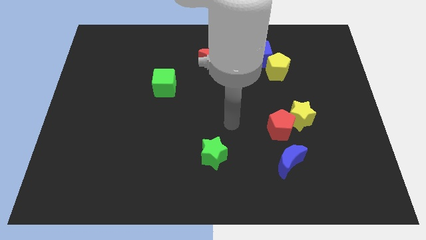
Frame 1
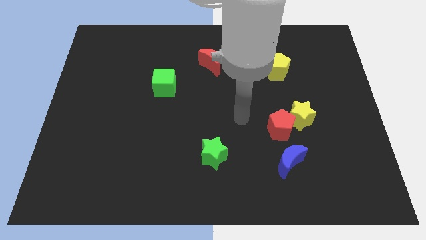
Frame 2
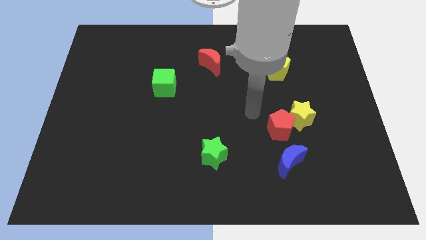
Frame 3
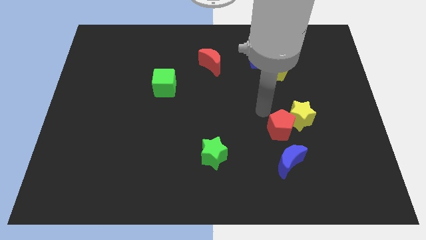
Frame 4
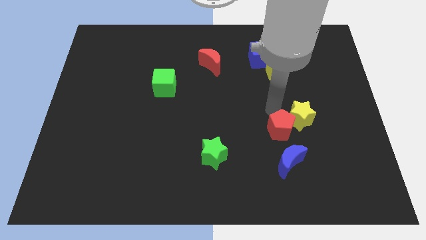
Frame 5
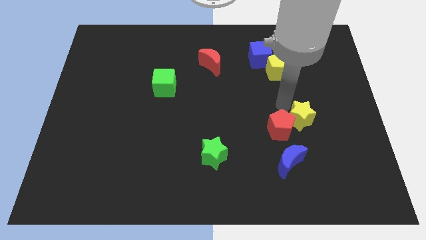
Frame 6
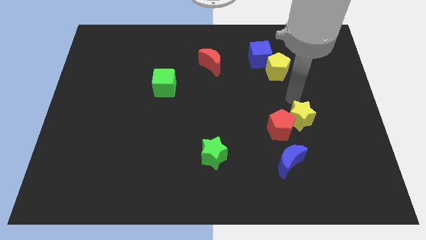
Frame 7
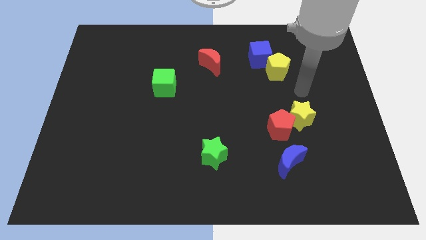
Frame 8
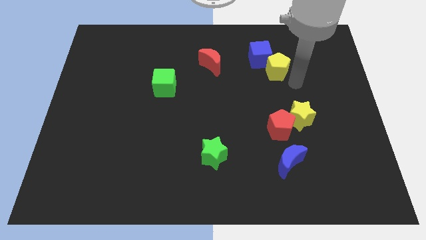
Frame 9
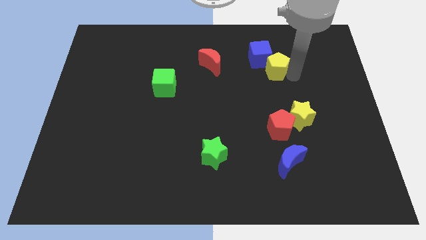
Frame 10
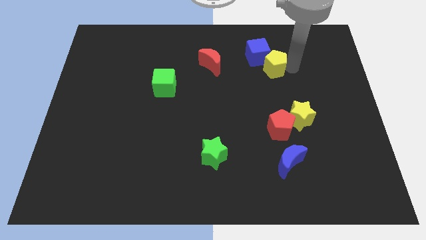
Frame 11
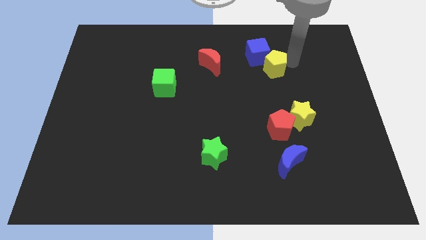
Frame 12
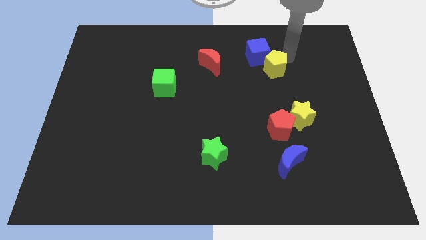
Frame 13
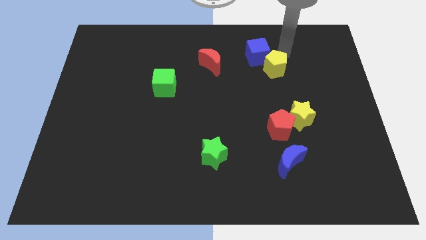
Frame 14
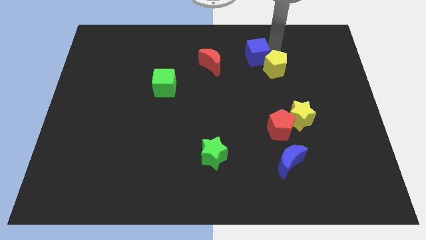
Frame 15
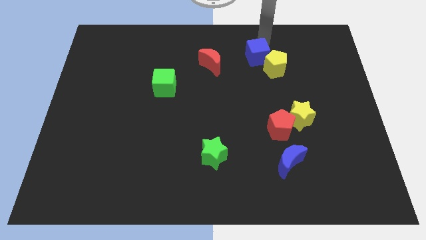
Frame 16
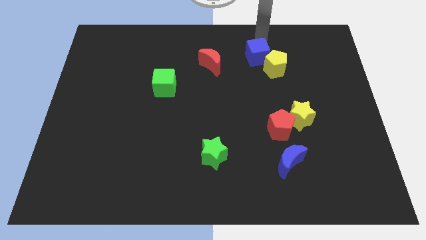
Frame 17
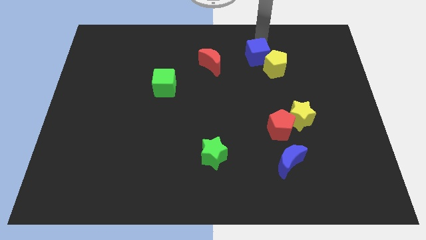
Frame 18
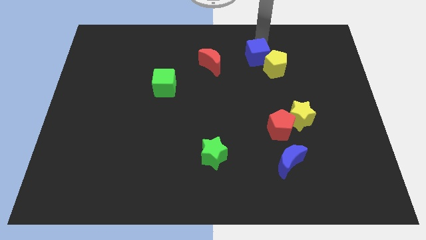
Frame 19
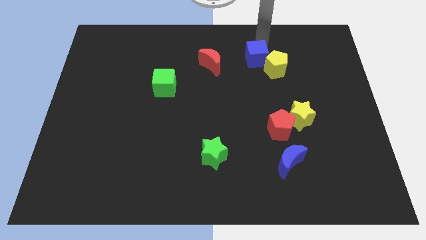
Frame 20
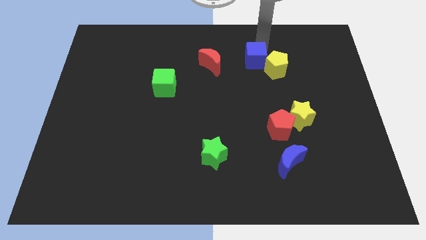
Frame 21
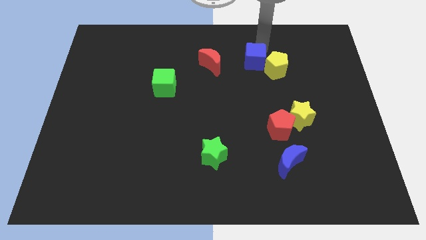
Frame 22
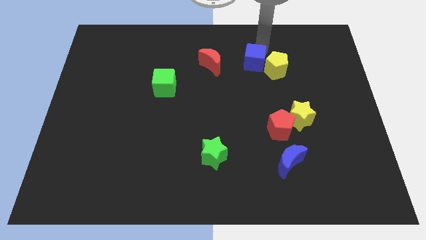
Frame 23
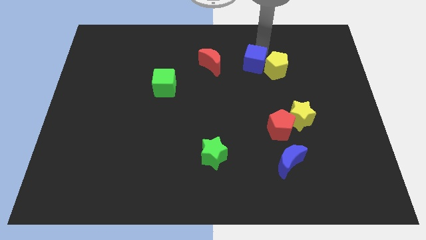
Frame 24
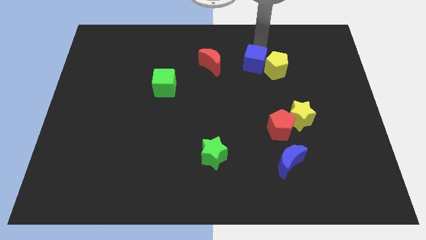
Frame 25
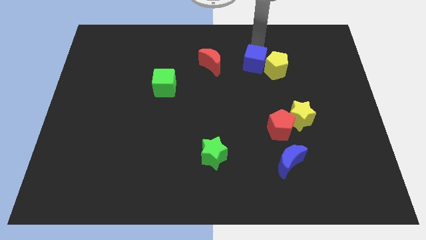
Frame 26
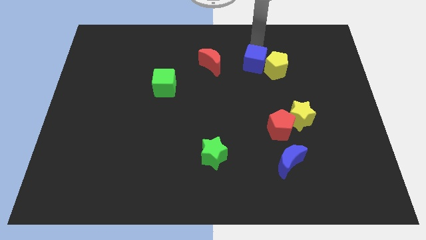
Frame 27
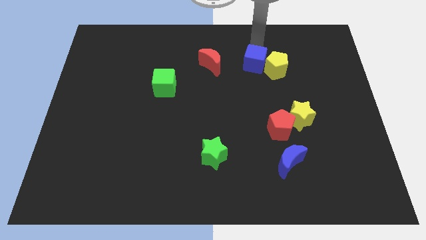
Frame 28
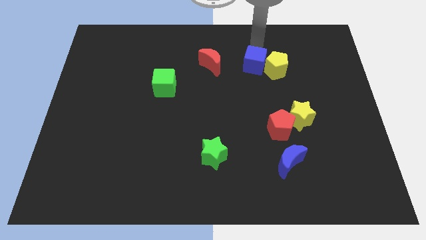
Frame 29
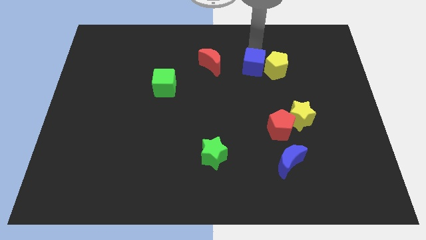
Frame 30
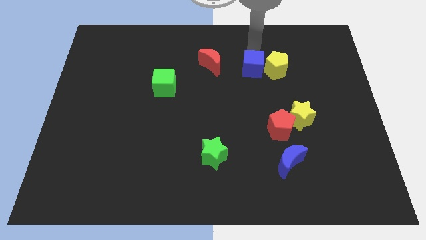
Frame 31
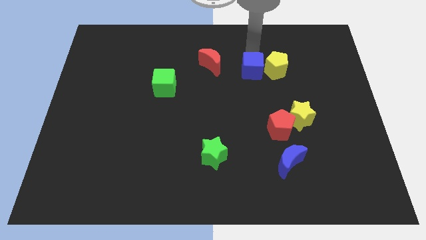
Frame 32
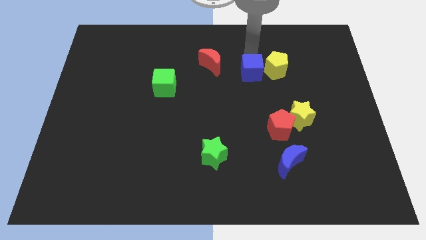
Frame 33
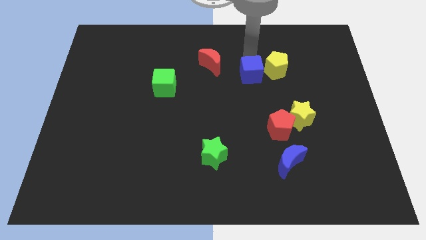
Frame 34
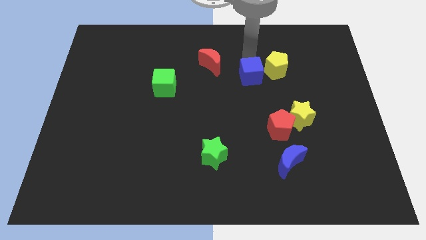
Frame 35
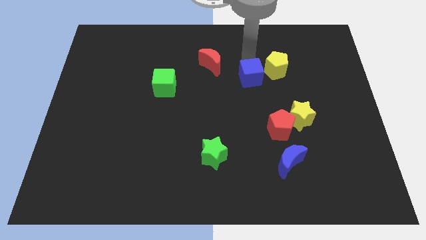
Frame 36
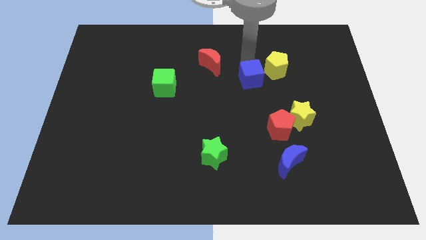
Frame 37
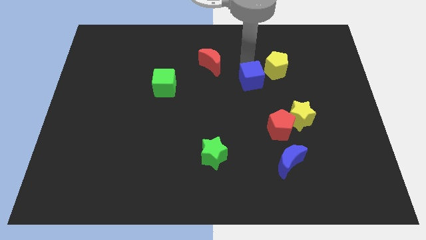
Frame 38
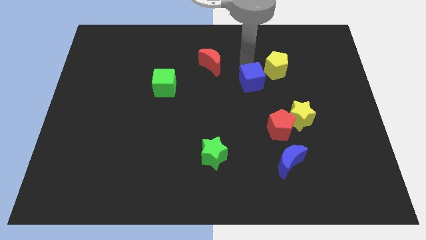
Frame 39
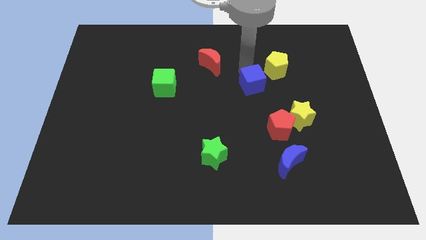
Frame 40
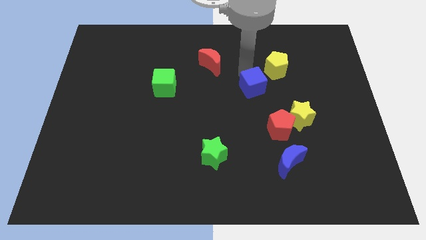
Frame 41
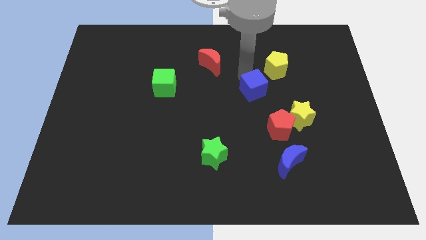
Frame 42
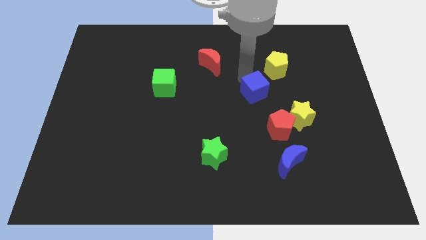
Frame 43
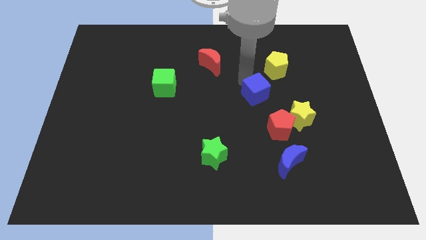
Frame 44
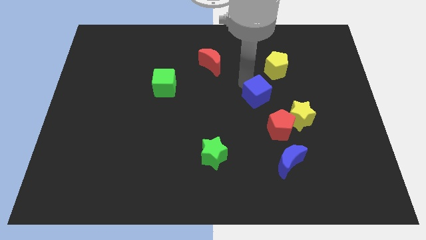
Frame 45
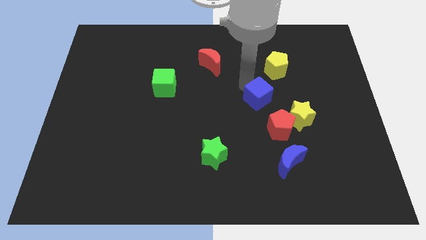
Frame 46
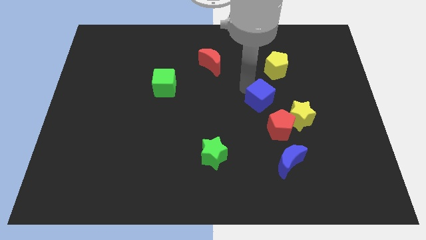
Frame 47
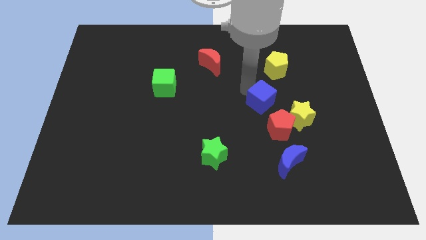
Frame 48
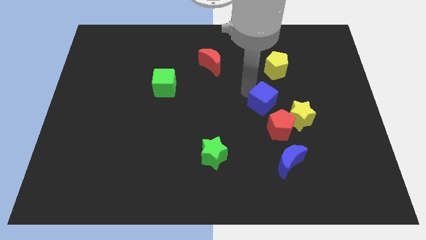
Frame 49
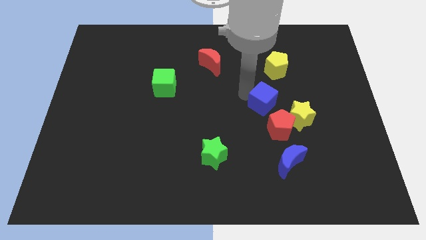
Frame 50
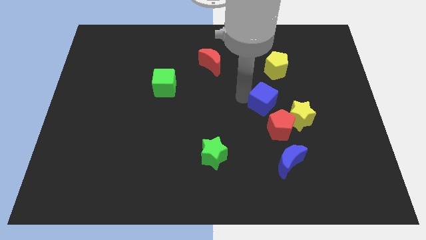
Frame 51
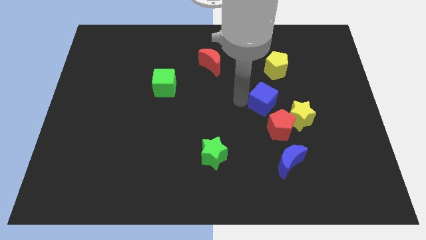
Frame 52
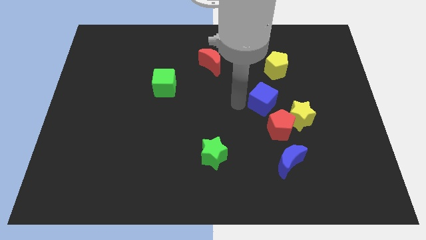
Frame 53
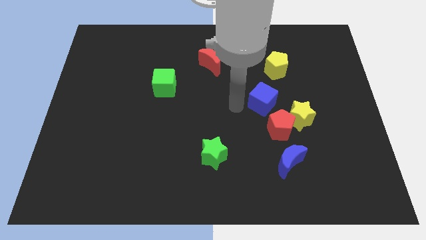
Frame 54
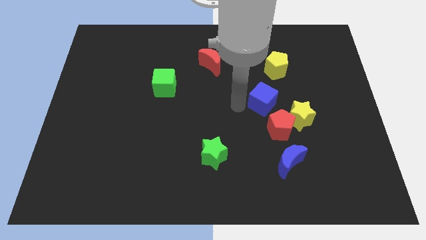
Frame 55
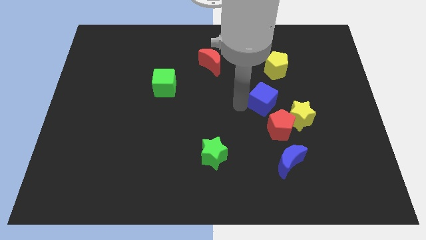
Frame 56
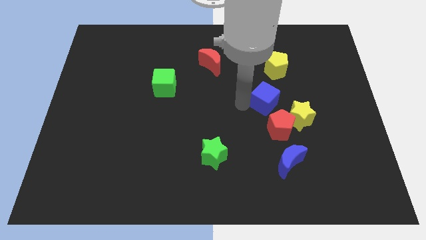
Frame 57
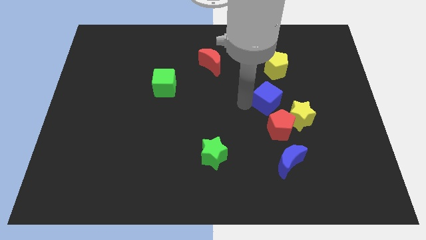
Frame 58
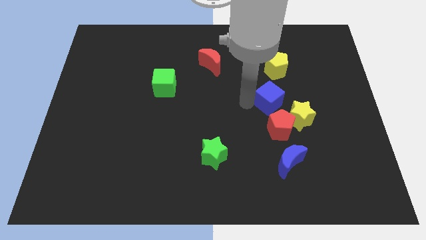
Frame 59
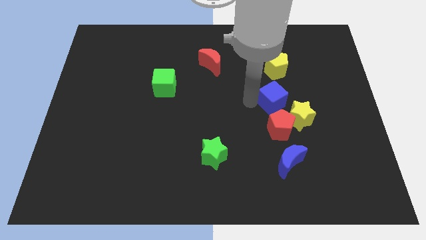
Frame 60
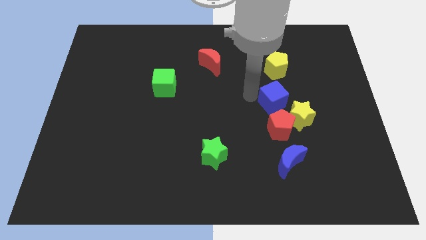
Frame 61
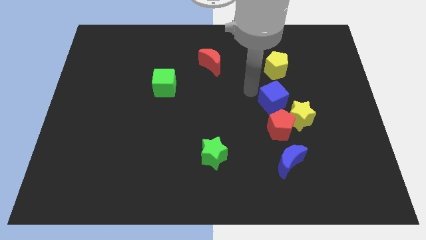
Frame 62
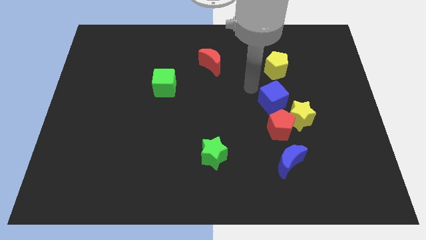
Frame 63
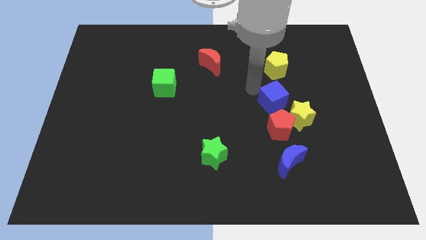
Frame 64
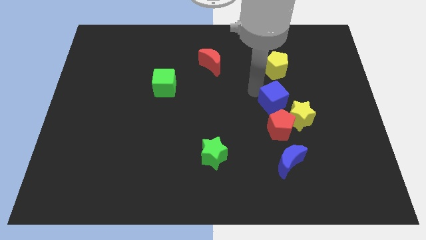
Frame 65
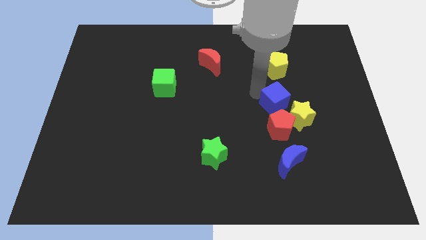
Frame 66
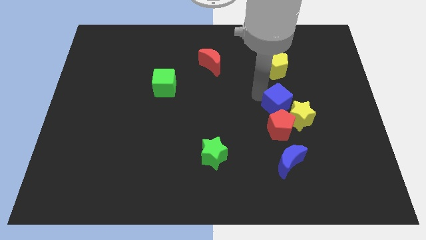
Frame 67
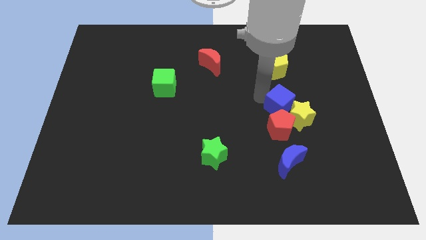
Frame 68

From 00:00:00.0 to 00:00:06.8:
push the blue cube towards the yellow star
